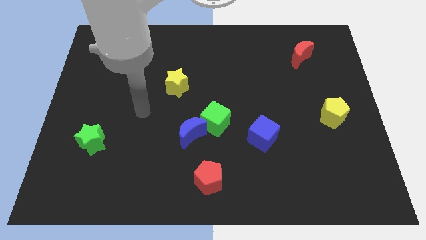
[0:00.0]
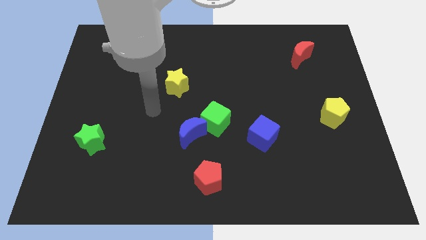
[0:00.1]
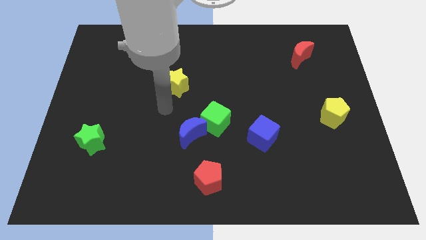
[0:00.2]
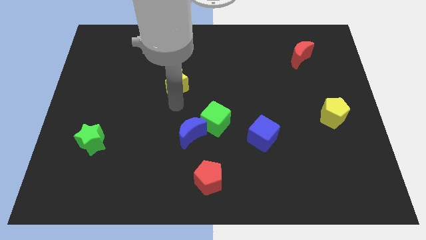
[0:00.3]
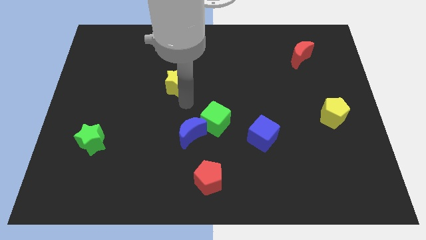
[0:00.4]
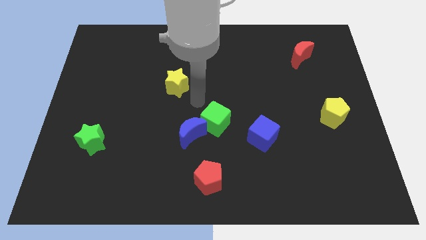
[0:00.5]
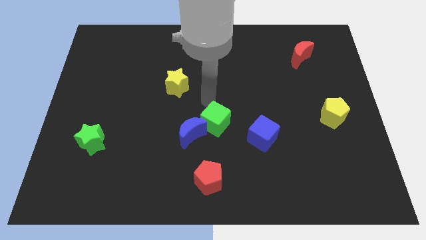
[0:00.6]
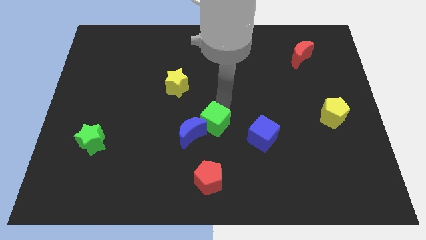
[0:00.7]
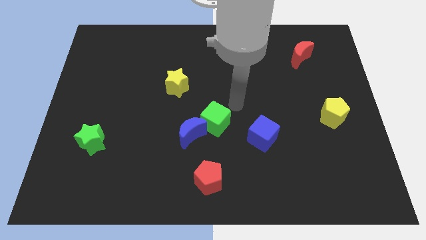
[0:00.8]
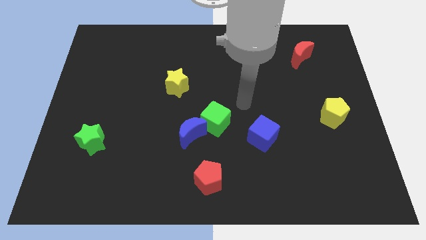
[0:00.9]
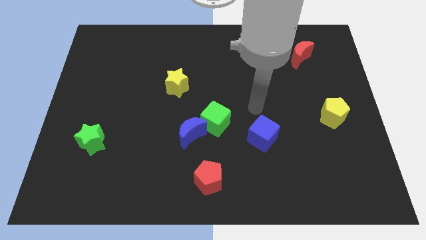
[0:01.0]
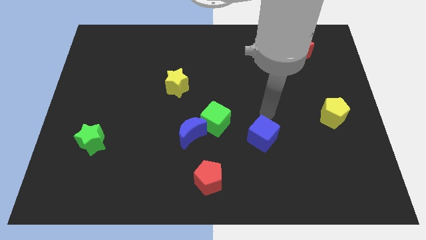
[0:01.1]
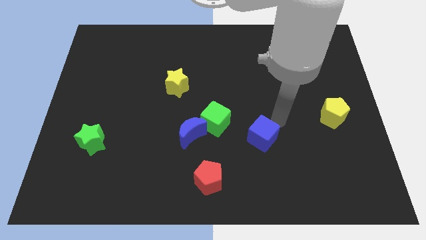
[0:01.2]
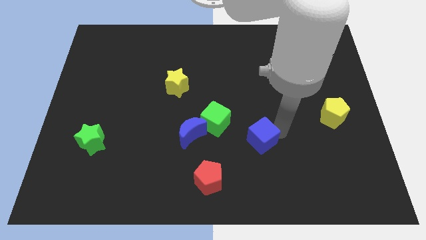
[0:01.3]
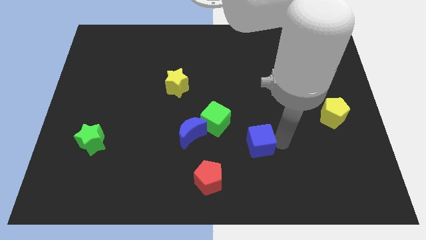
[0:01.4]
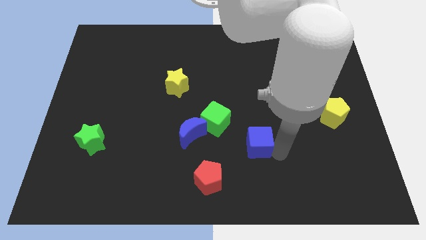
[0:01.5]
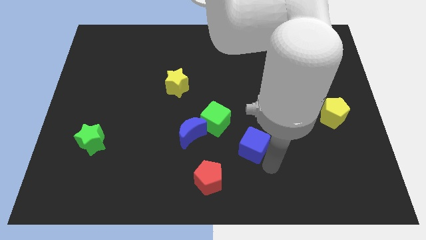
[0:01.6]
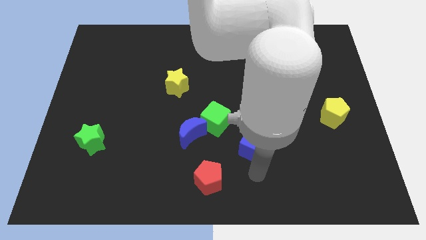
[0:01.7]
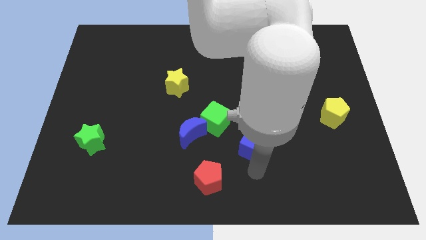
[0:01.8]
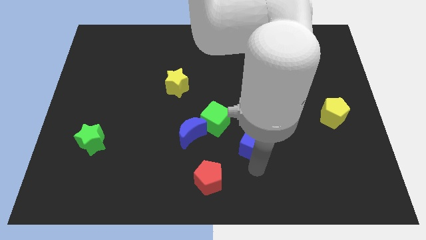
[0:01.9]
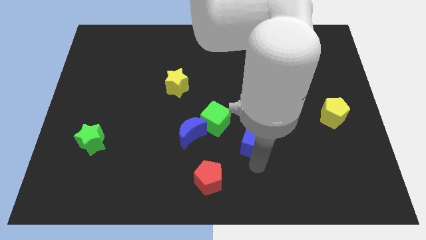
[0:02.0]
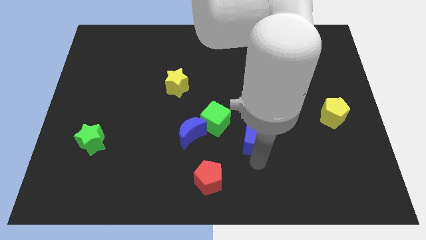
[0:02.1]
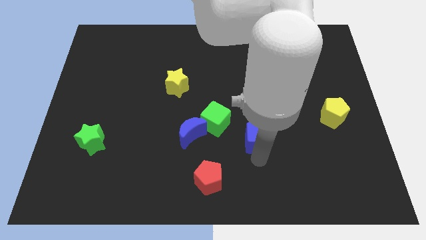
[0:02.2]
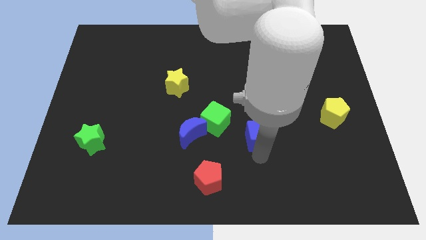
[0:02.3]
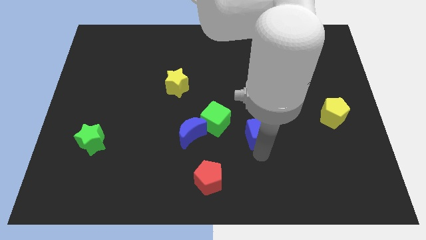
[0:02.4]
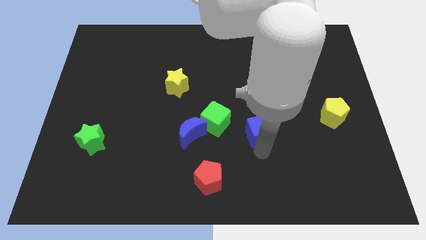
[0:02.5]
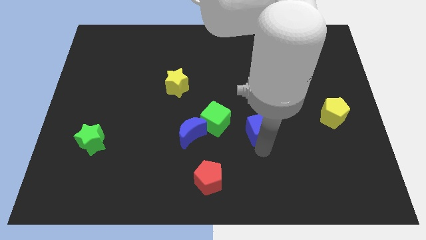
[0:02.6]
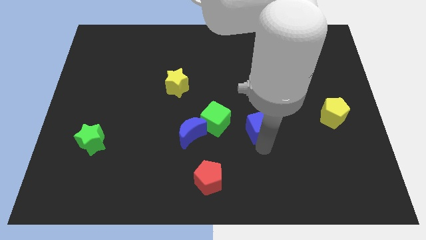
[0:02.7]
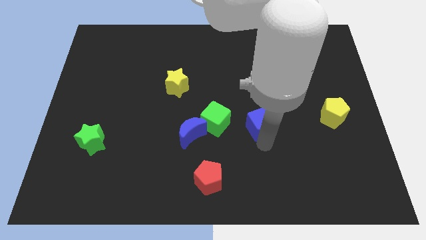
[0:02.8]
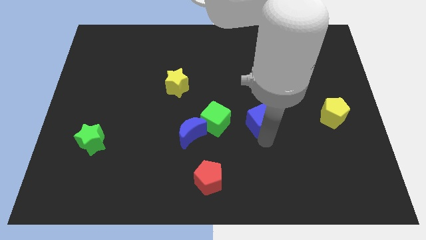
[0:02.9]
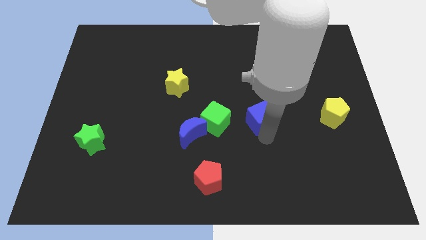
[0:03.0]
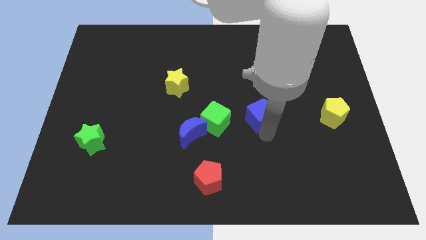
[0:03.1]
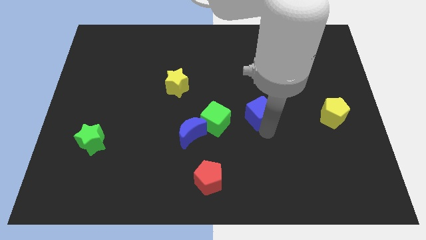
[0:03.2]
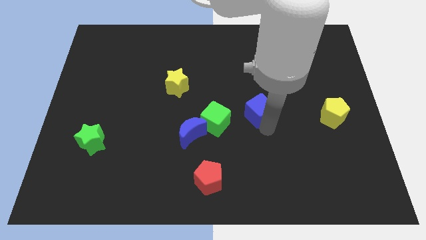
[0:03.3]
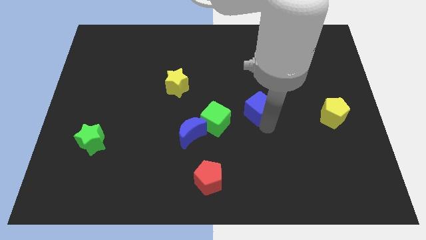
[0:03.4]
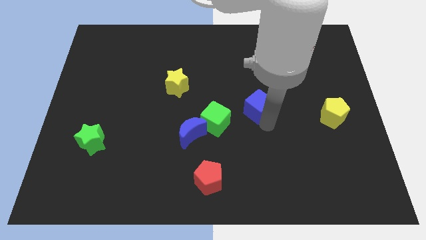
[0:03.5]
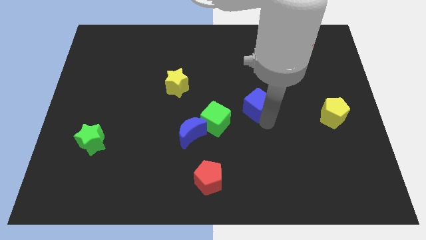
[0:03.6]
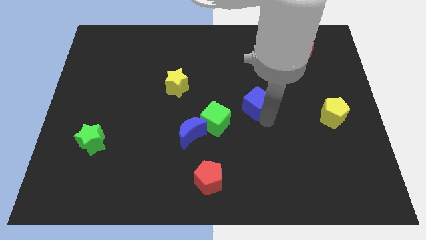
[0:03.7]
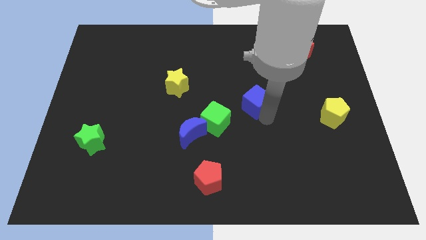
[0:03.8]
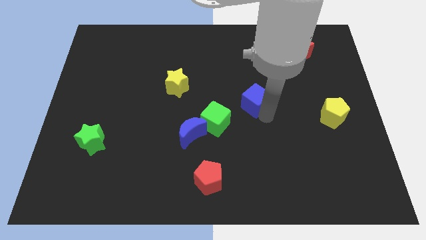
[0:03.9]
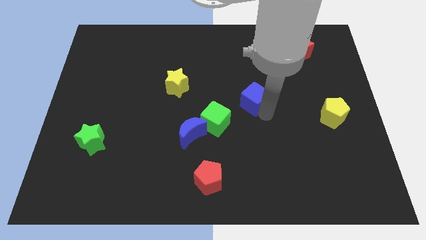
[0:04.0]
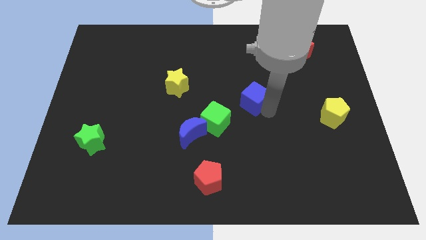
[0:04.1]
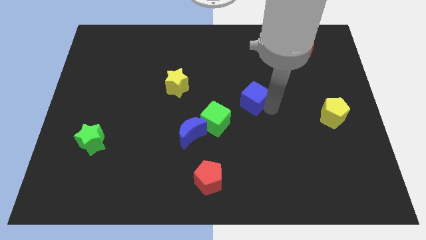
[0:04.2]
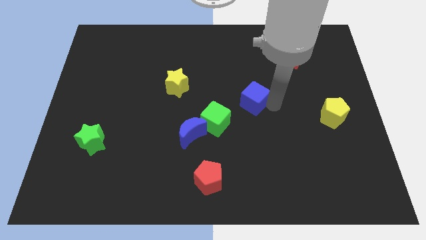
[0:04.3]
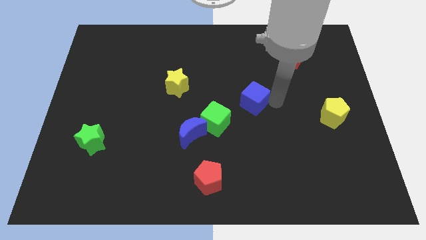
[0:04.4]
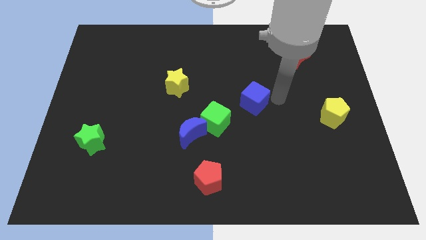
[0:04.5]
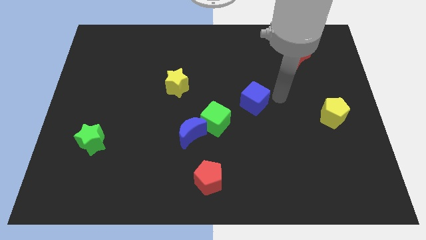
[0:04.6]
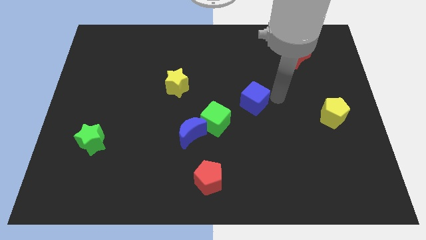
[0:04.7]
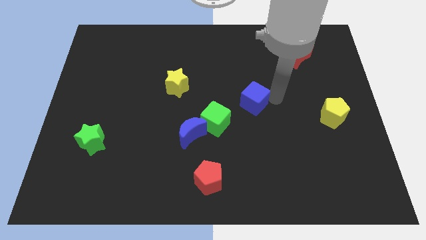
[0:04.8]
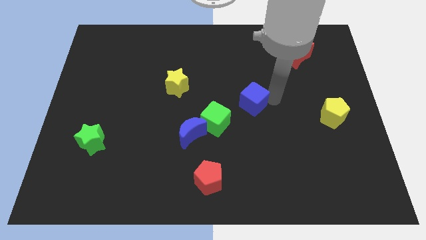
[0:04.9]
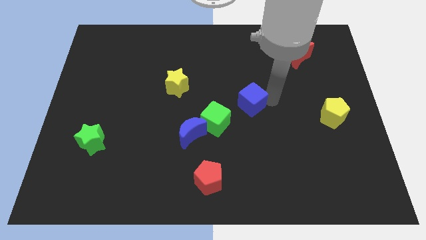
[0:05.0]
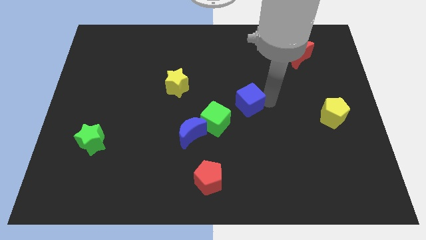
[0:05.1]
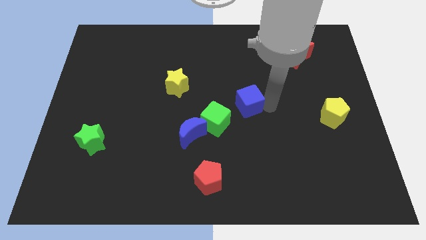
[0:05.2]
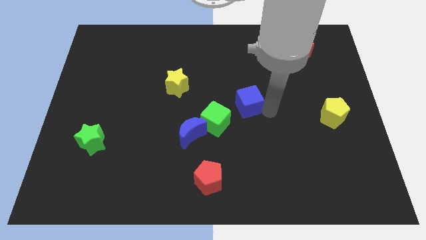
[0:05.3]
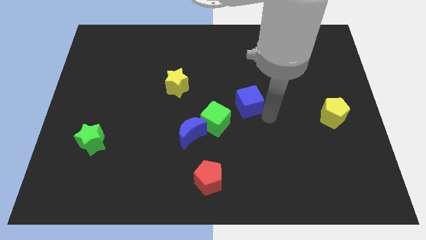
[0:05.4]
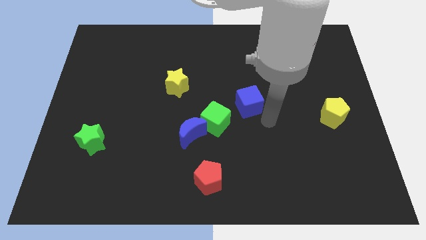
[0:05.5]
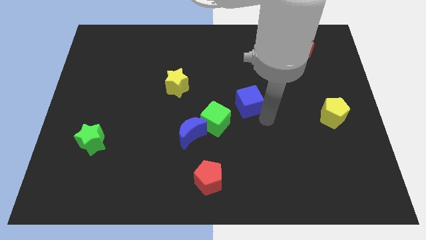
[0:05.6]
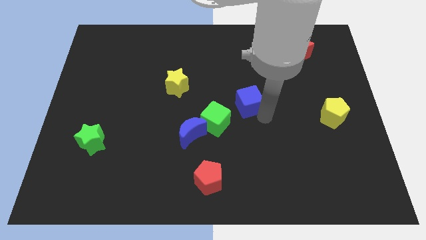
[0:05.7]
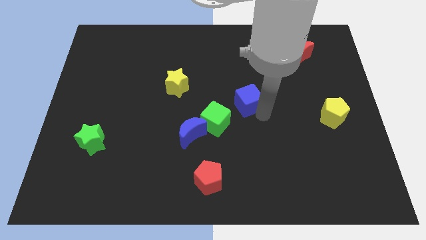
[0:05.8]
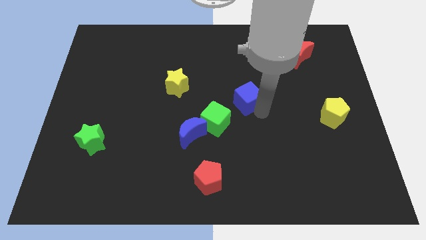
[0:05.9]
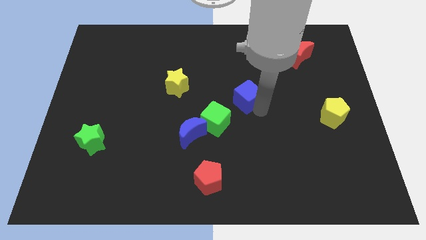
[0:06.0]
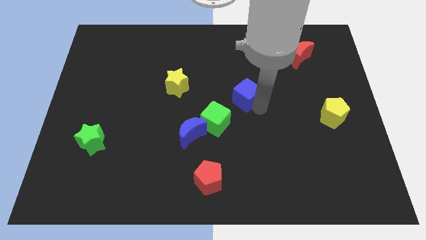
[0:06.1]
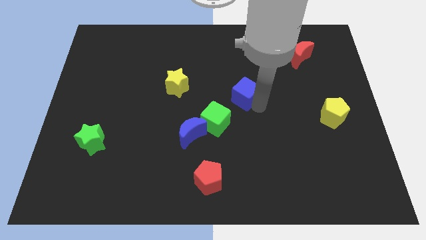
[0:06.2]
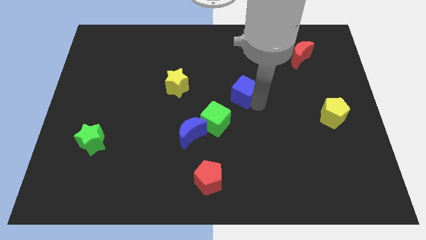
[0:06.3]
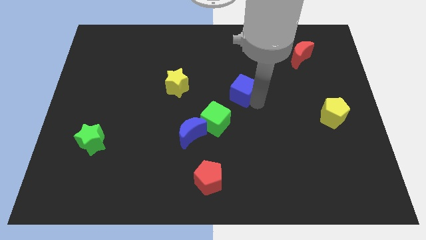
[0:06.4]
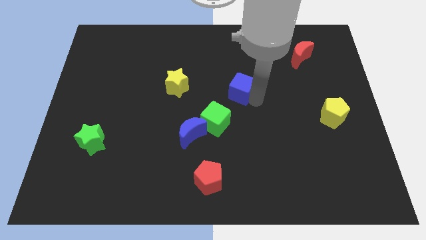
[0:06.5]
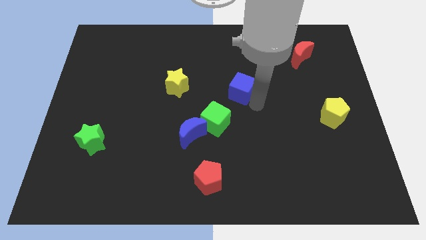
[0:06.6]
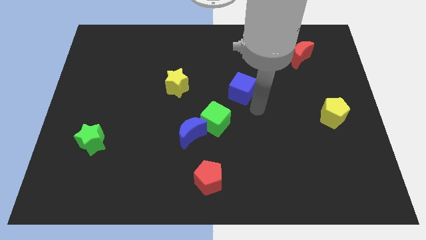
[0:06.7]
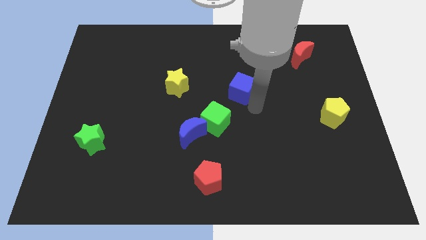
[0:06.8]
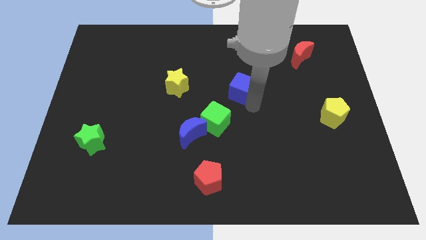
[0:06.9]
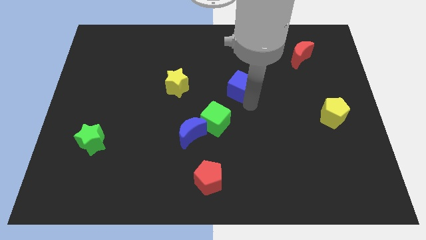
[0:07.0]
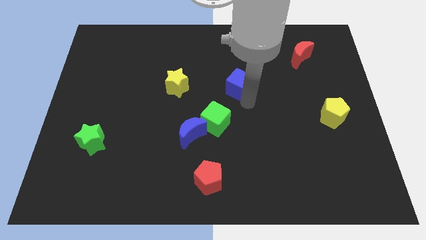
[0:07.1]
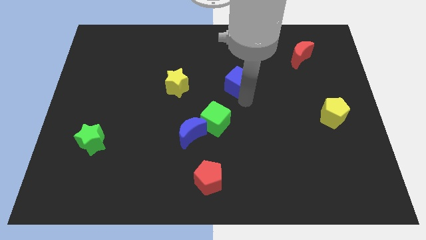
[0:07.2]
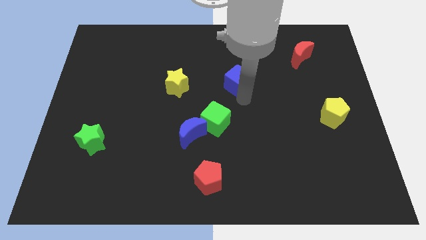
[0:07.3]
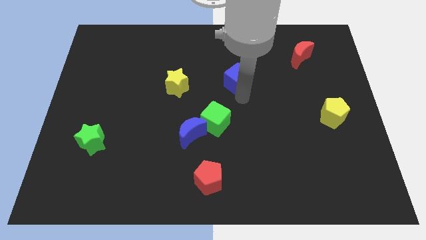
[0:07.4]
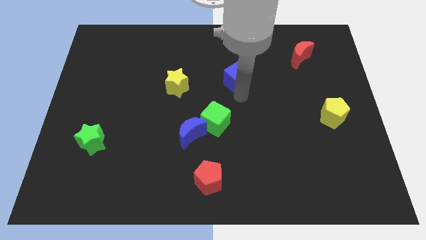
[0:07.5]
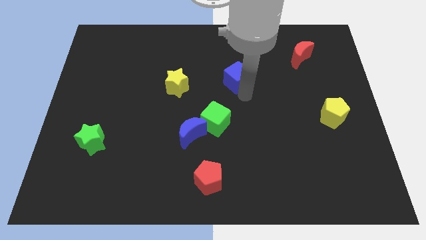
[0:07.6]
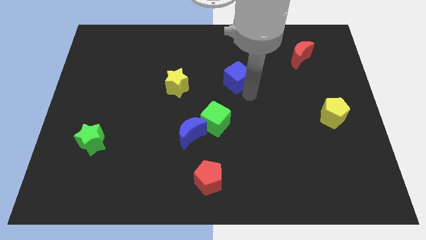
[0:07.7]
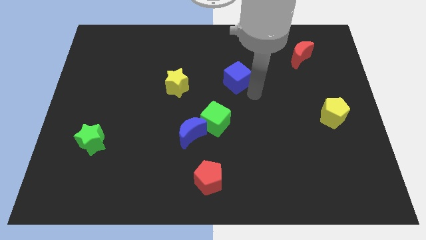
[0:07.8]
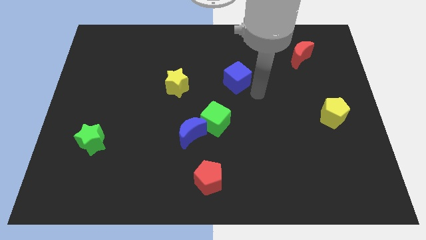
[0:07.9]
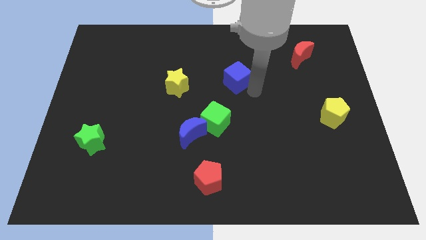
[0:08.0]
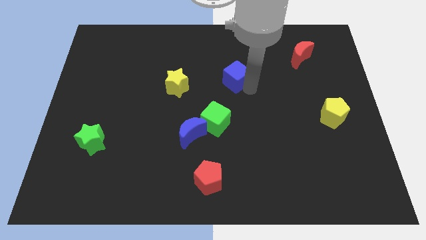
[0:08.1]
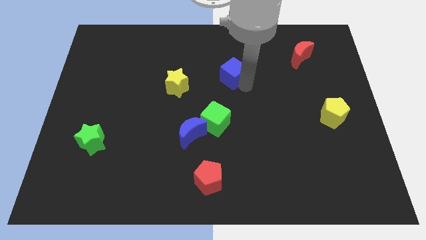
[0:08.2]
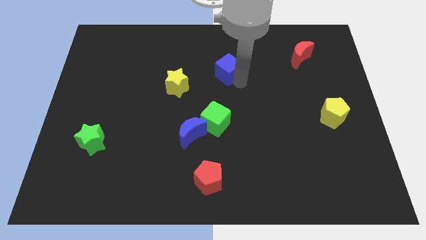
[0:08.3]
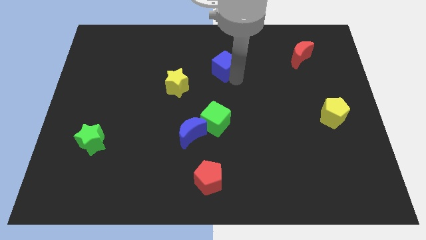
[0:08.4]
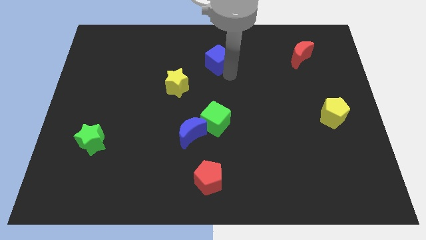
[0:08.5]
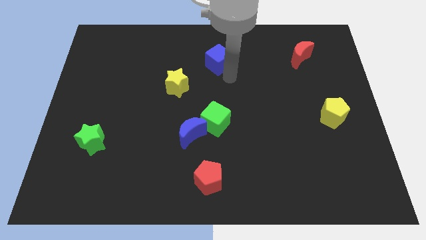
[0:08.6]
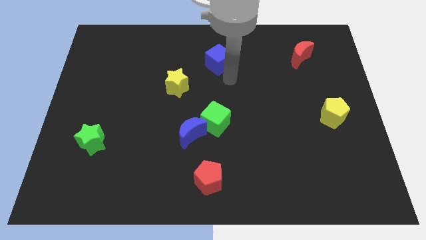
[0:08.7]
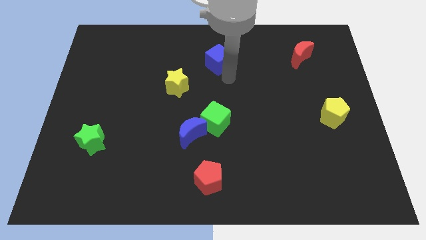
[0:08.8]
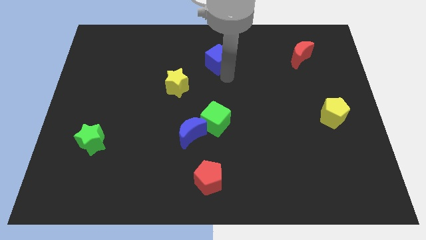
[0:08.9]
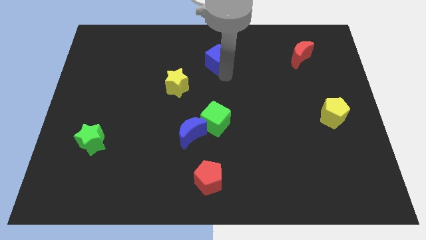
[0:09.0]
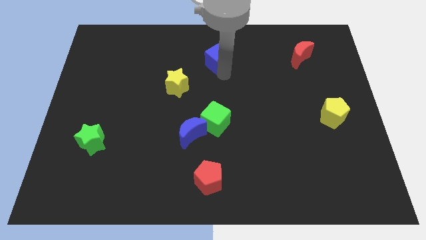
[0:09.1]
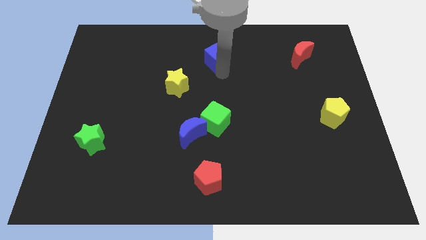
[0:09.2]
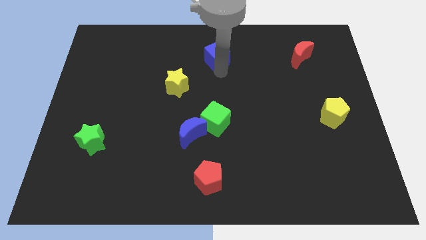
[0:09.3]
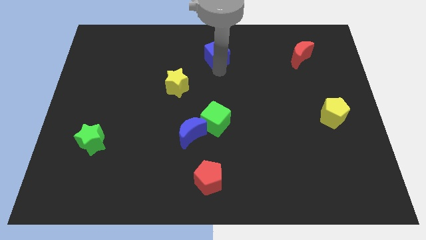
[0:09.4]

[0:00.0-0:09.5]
slide the blue cube to the top side
